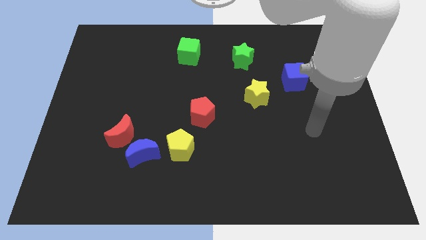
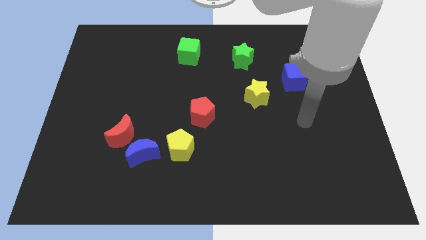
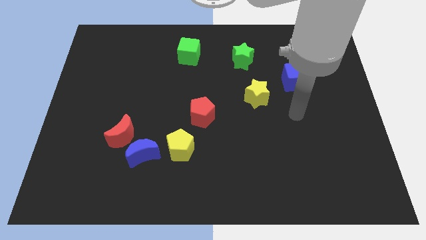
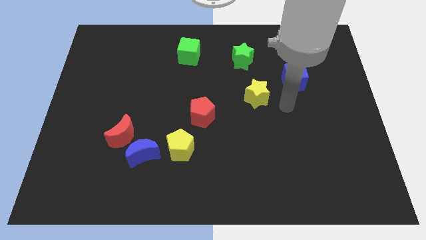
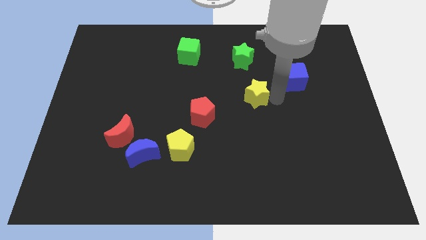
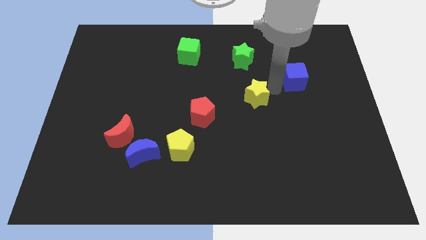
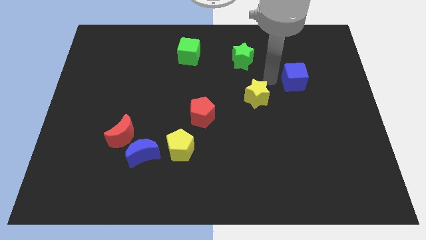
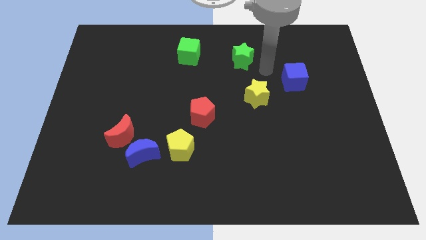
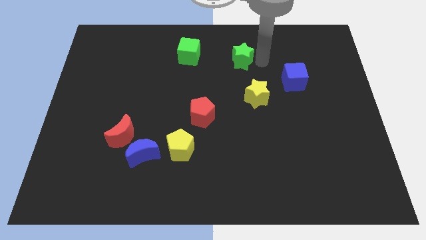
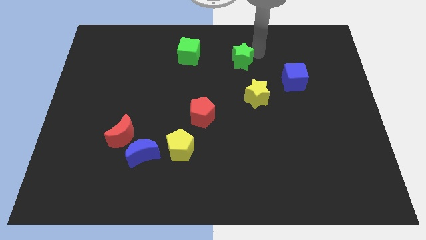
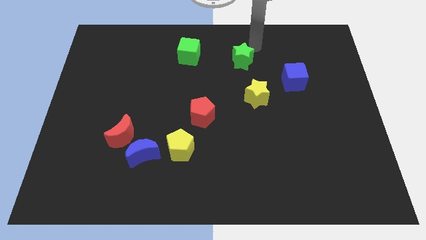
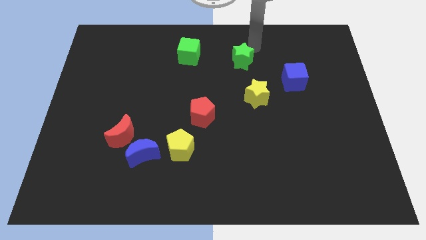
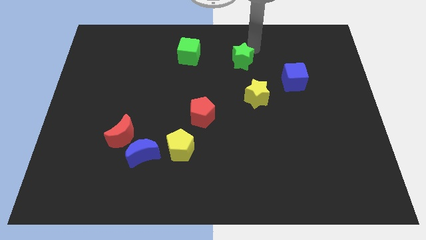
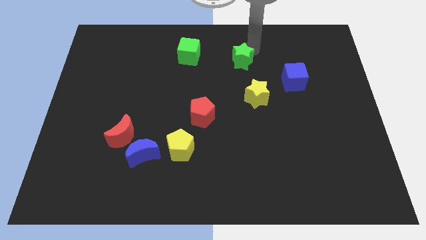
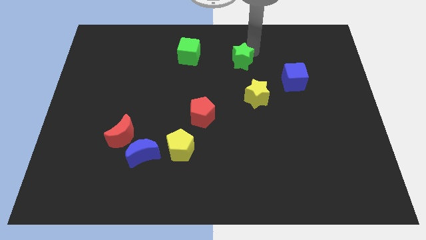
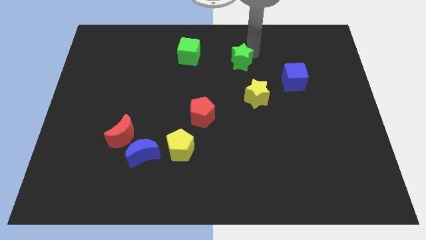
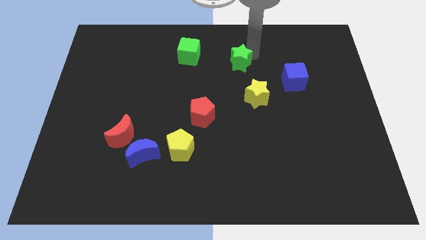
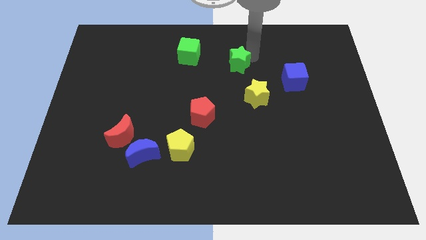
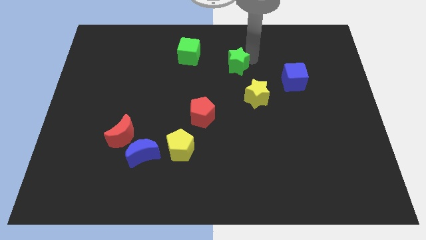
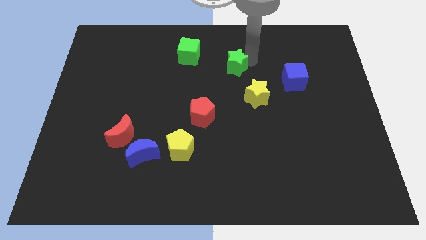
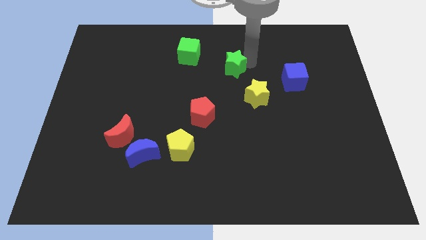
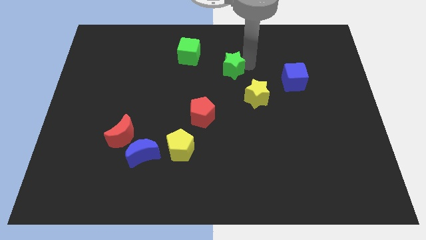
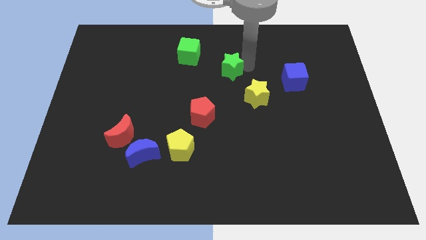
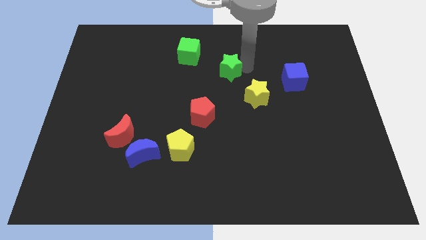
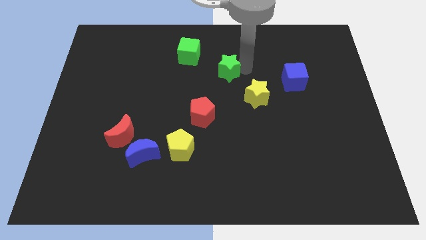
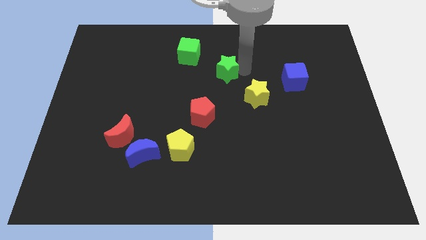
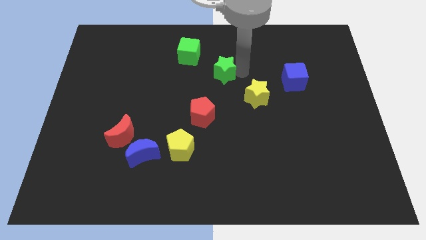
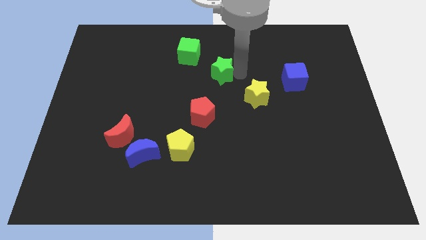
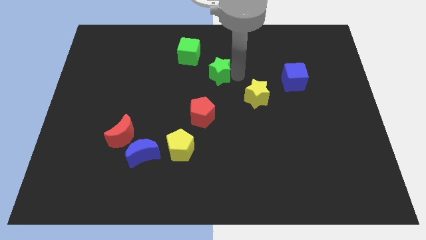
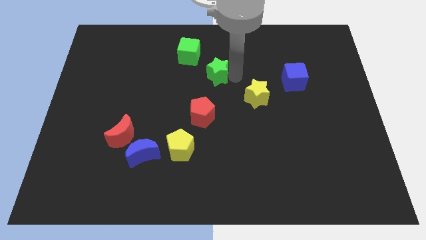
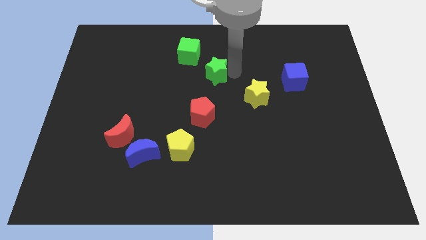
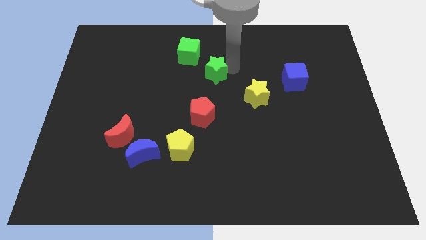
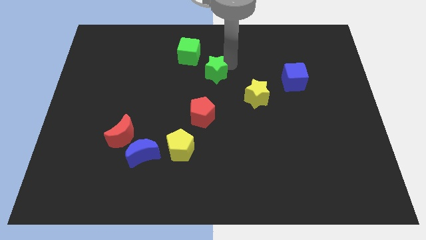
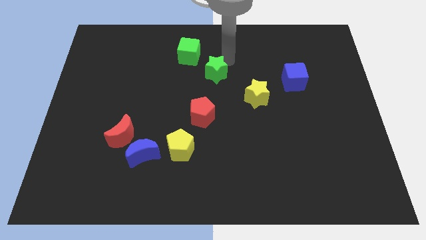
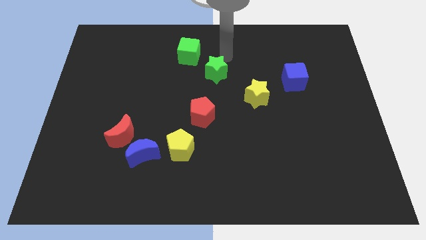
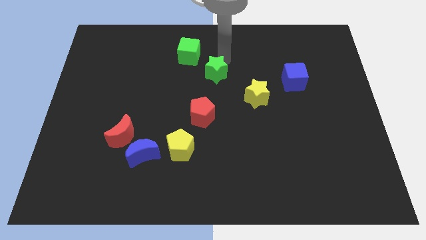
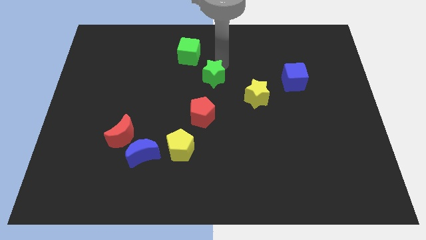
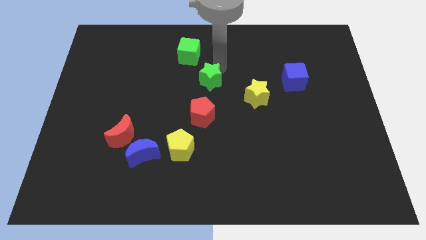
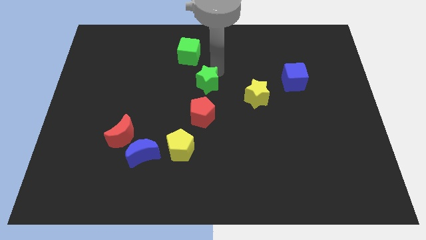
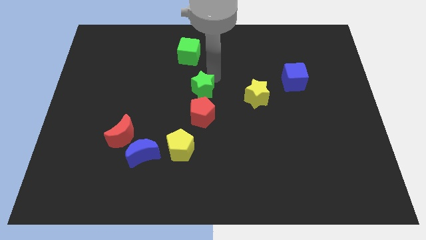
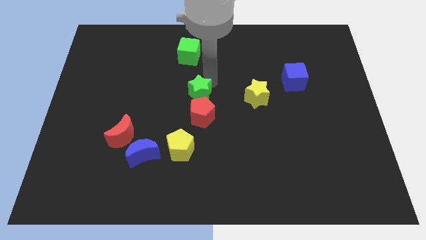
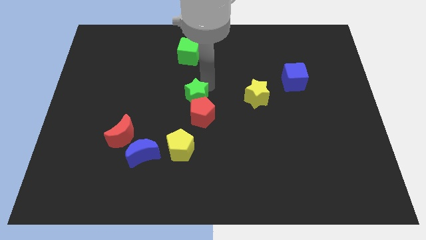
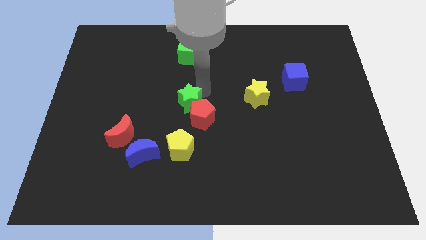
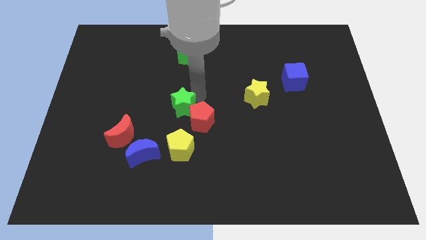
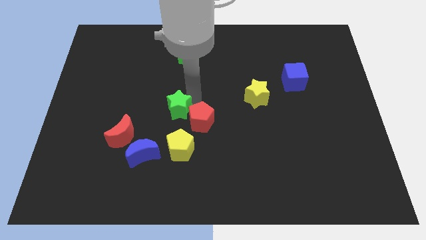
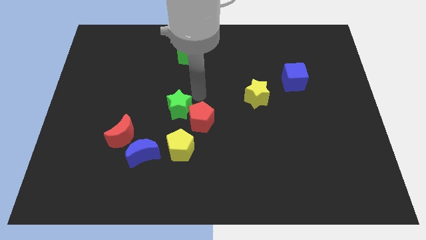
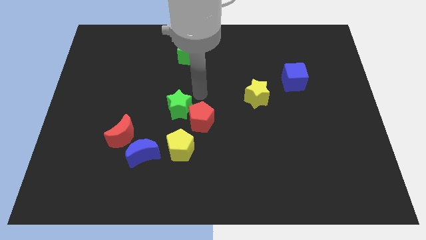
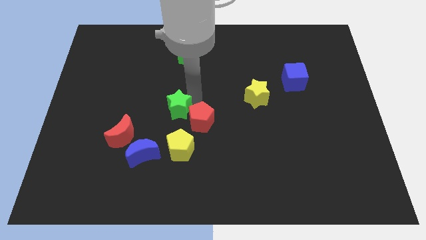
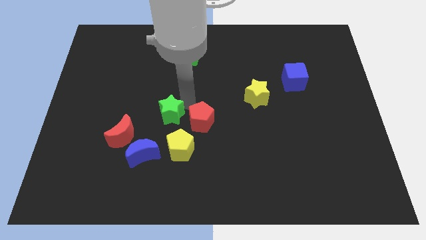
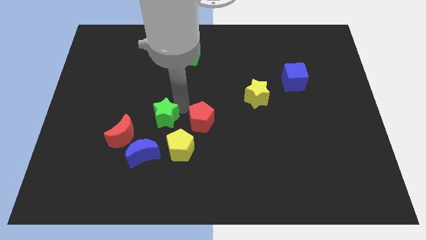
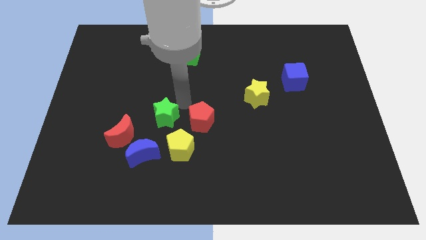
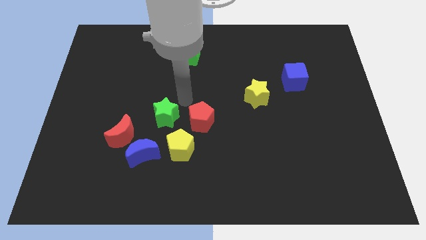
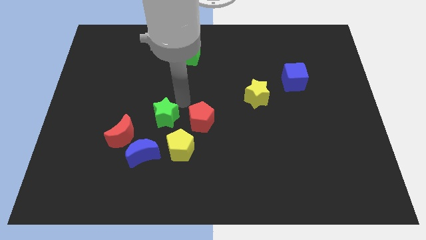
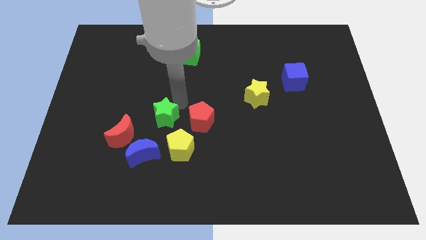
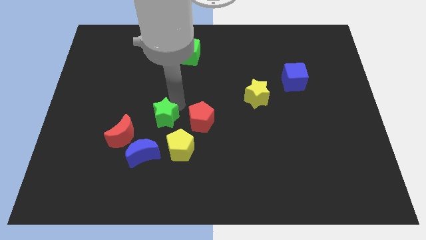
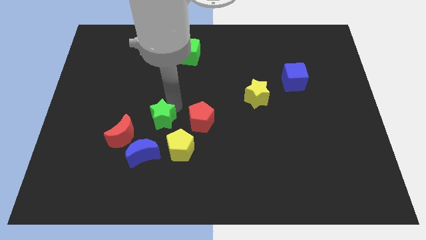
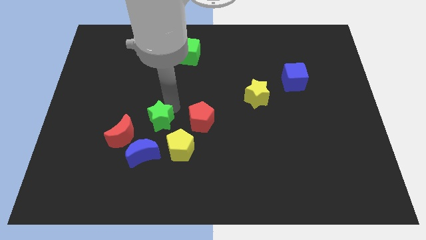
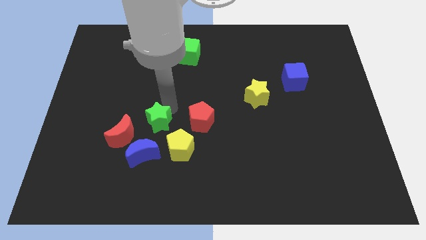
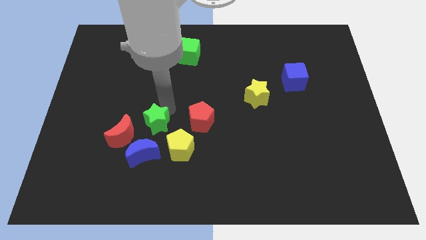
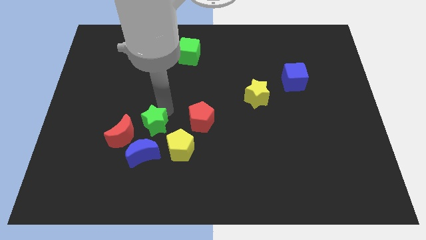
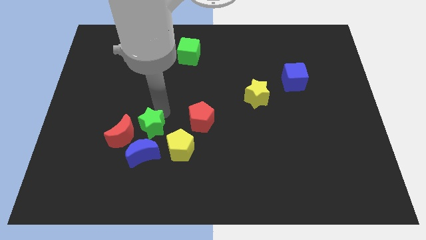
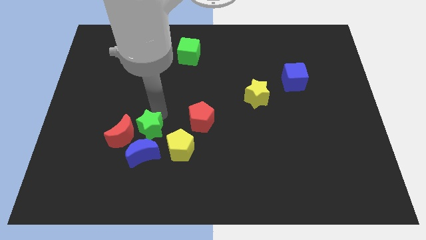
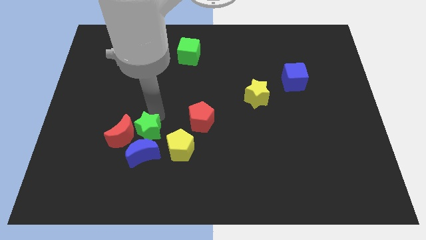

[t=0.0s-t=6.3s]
slide the green star to the blue moon
